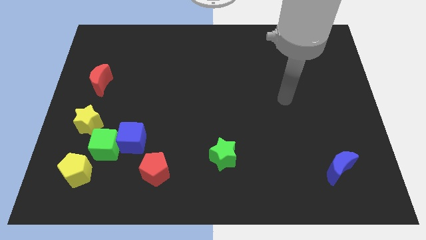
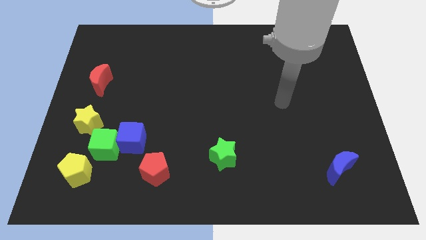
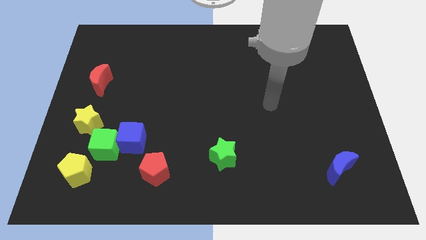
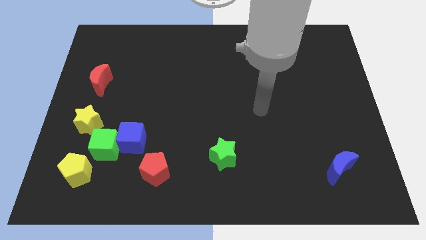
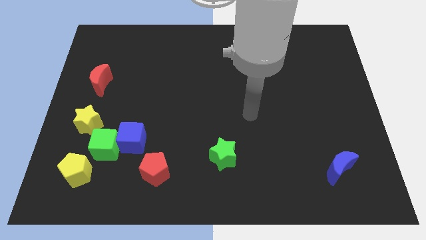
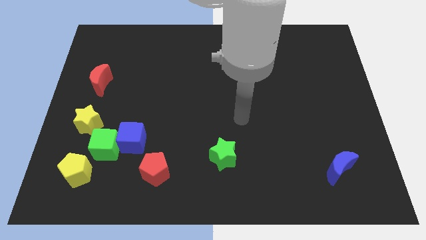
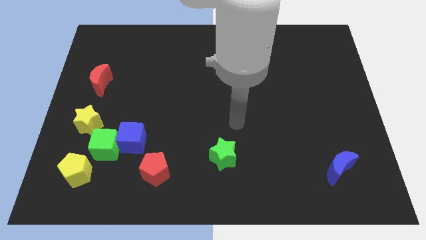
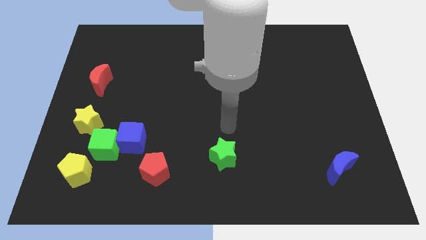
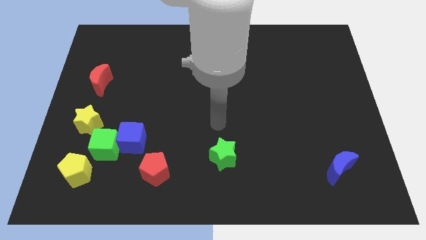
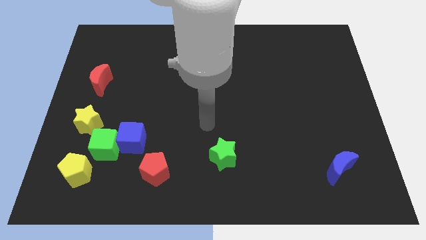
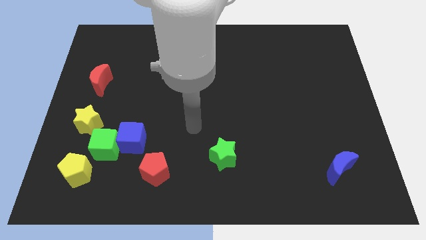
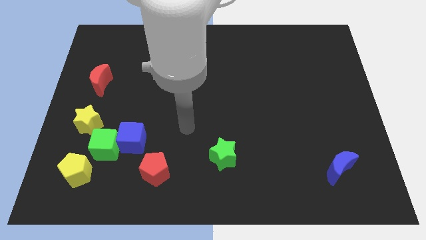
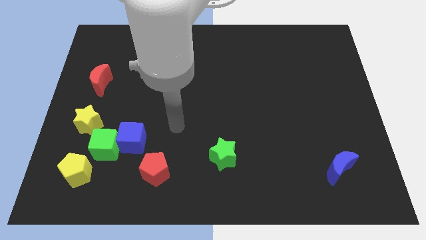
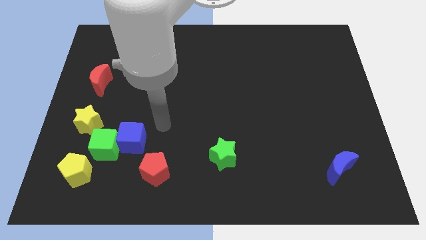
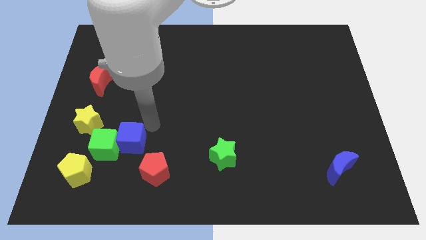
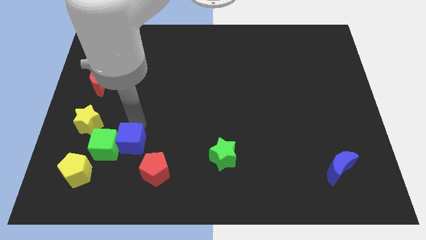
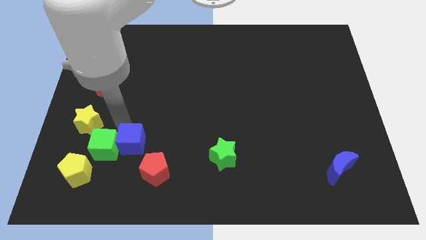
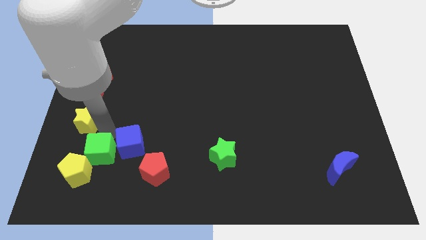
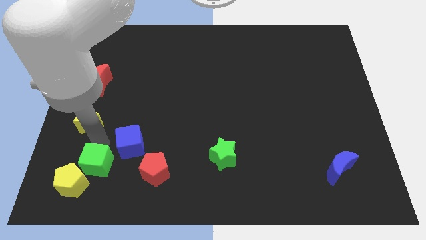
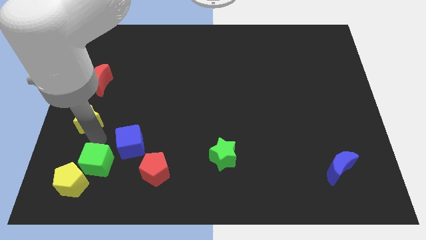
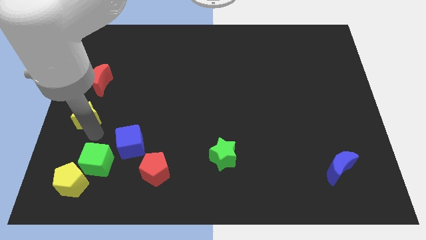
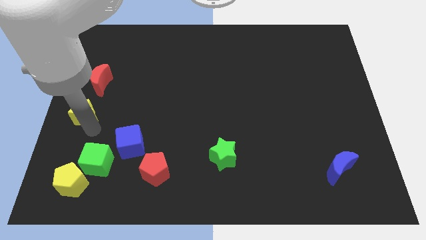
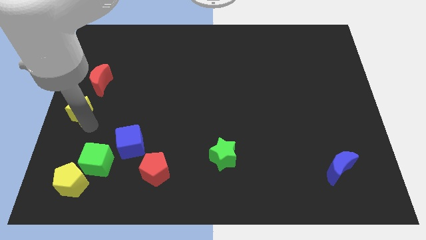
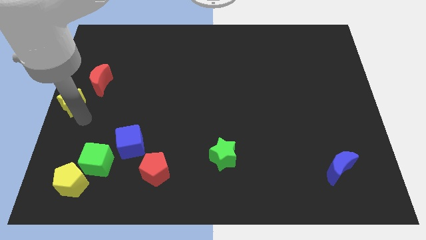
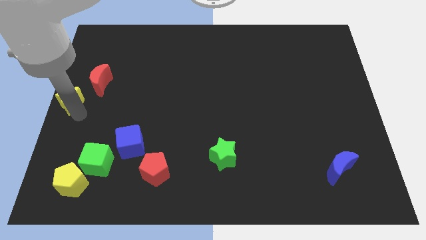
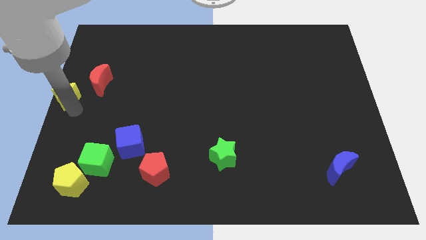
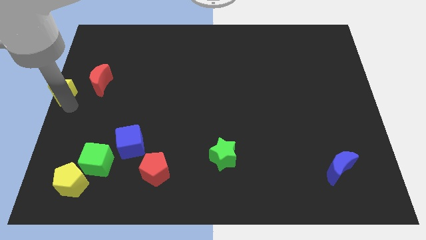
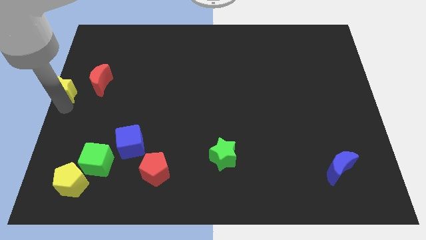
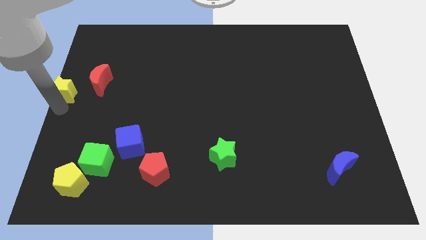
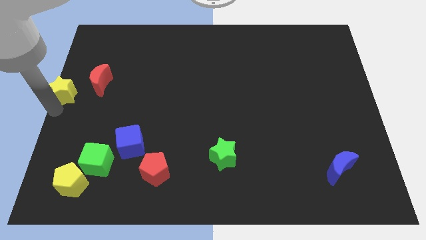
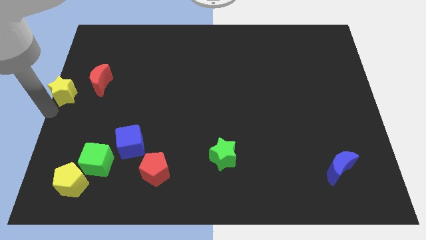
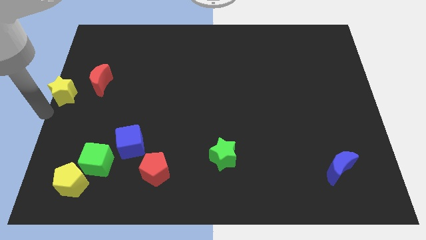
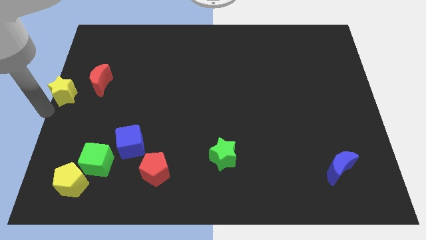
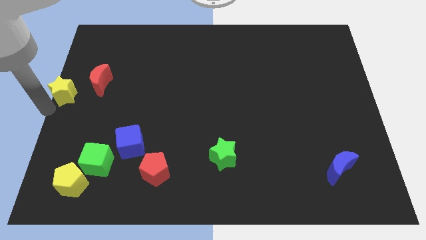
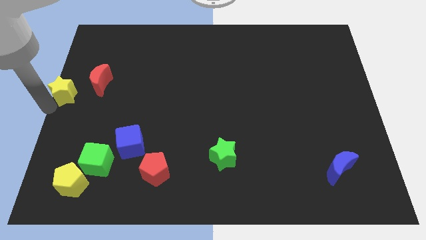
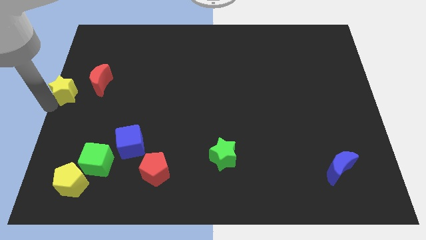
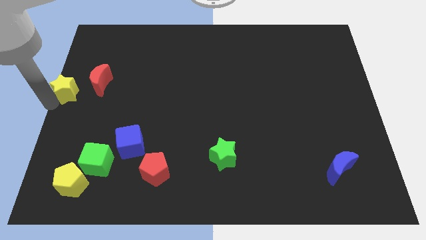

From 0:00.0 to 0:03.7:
slide the yellow star a little bit up

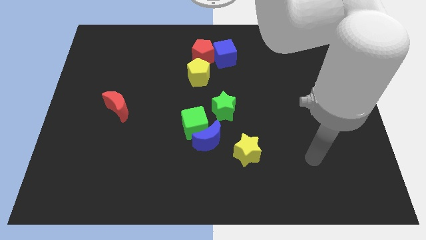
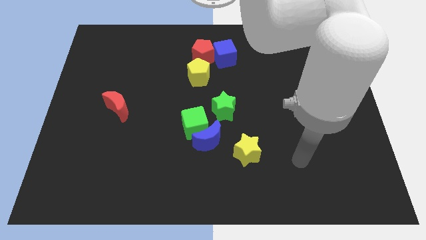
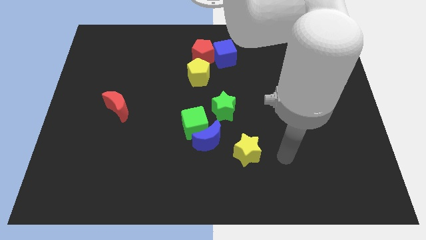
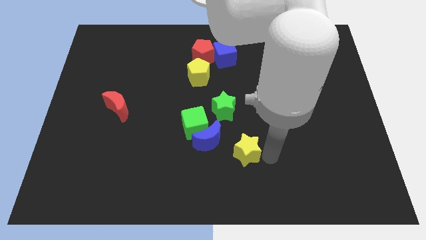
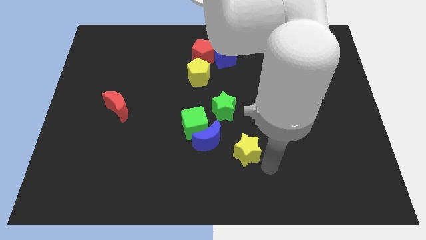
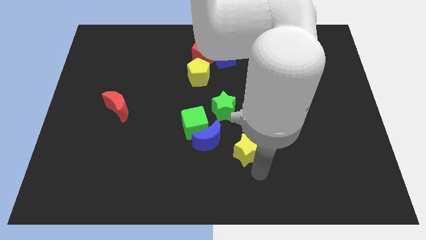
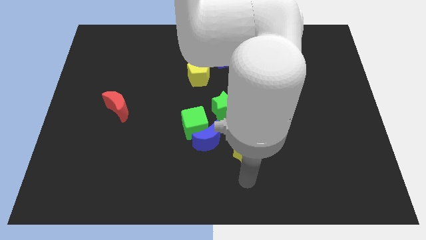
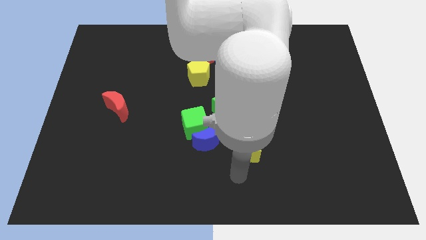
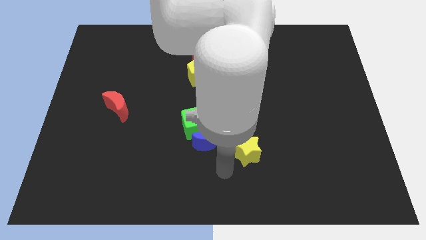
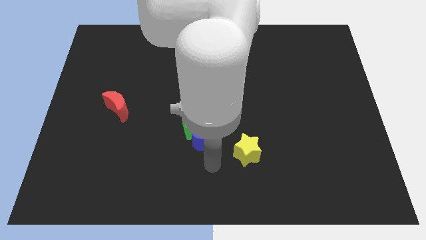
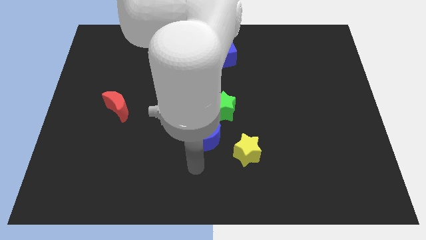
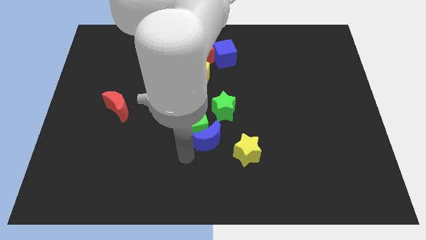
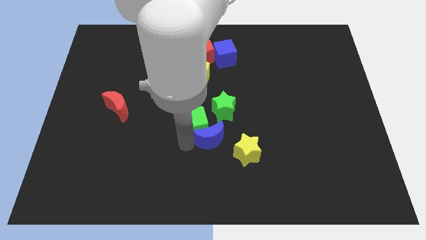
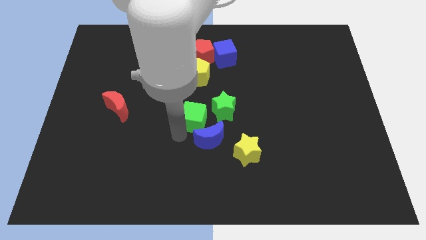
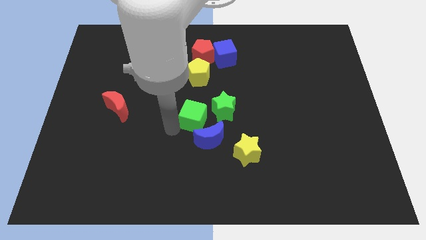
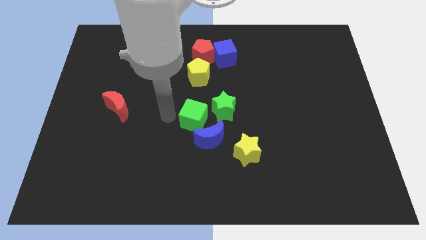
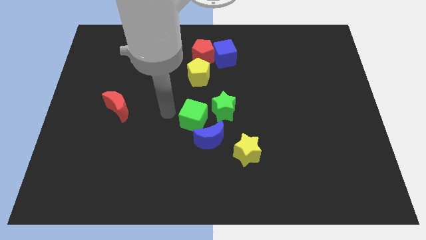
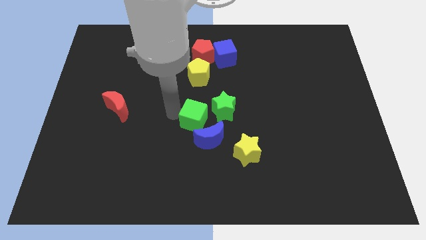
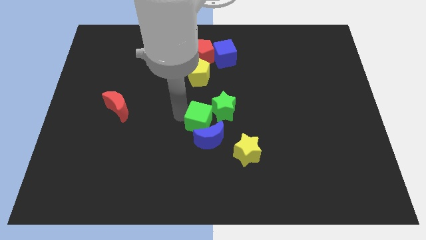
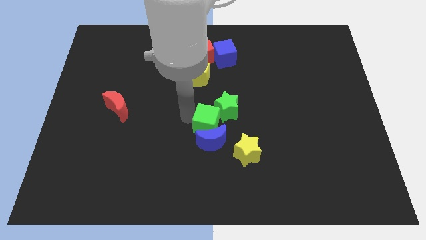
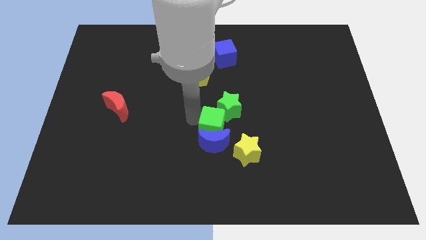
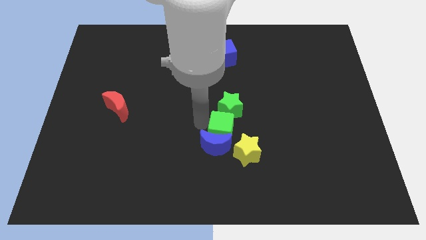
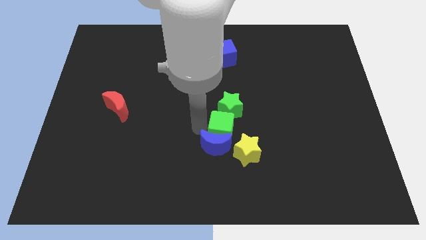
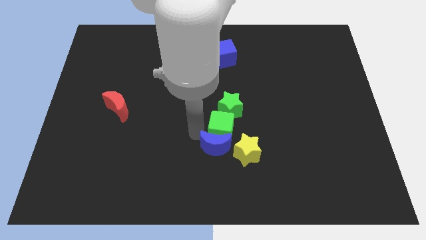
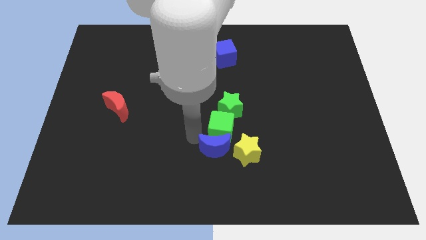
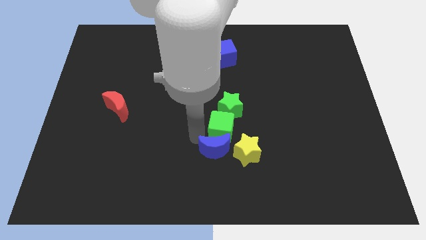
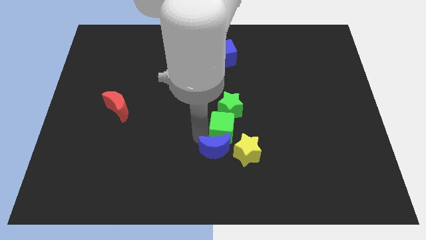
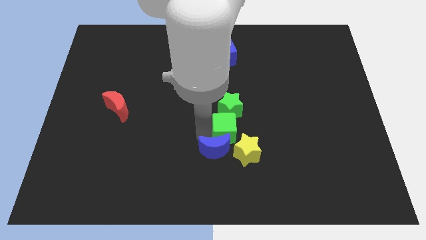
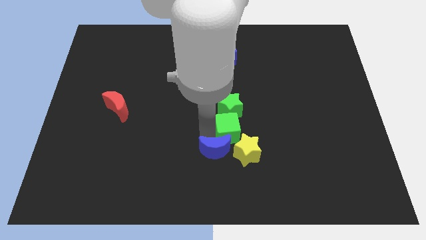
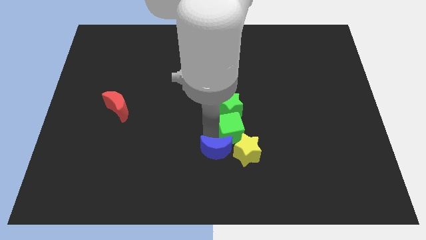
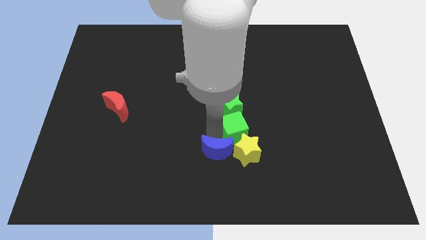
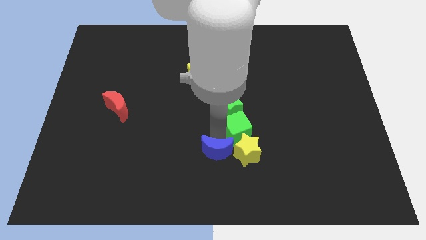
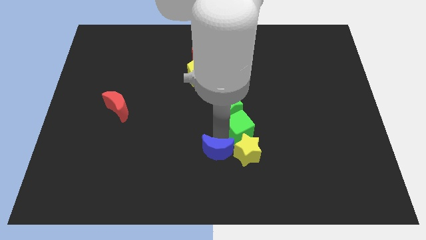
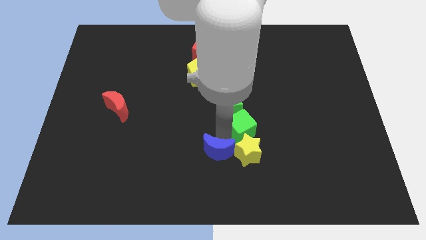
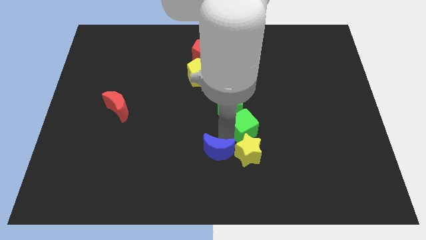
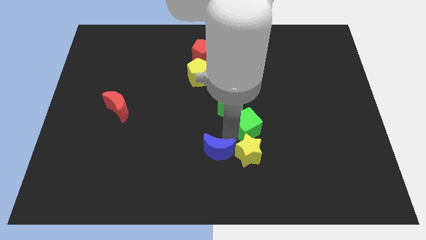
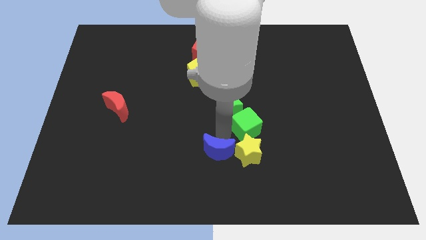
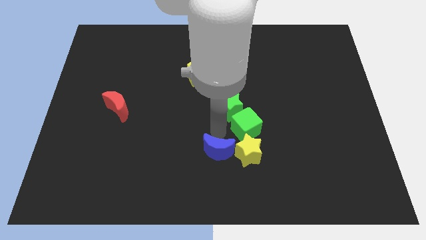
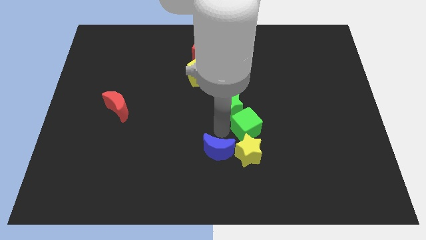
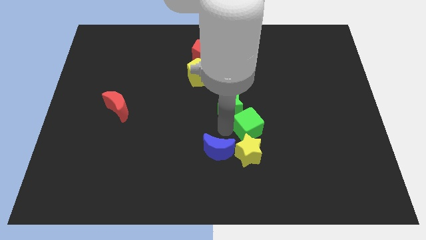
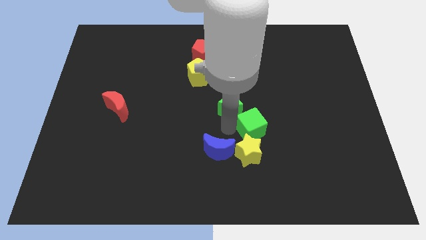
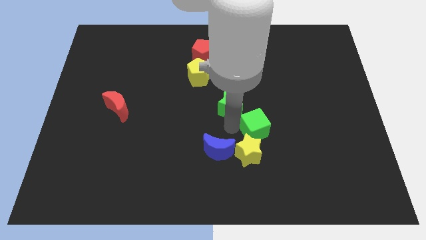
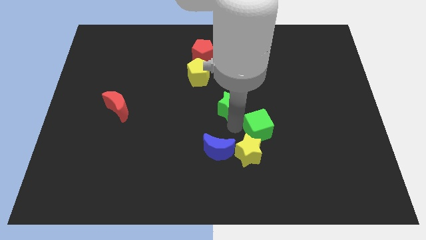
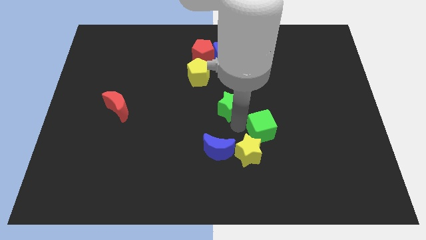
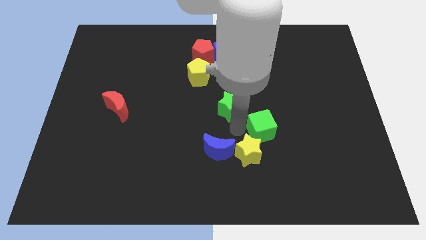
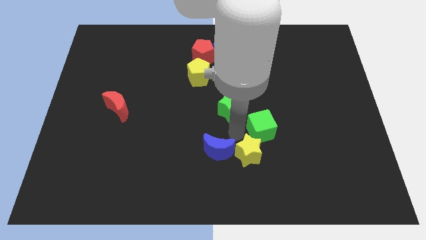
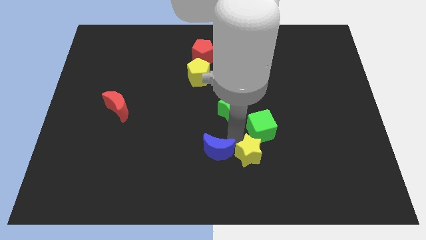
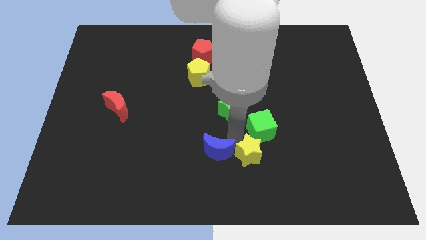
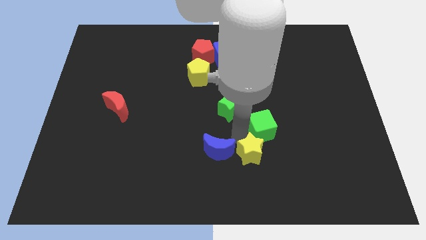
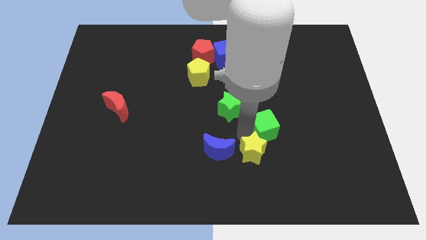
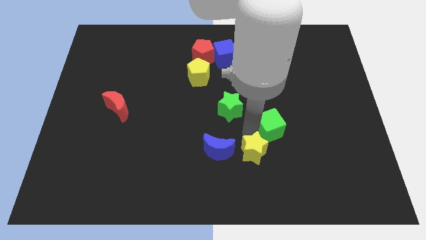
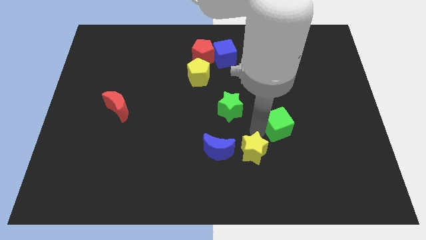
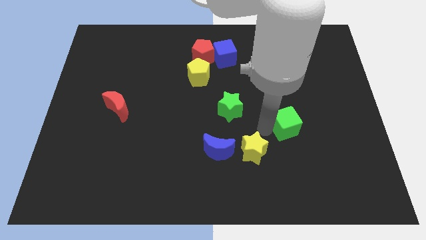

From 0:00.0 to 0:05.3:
move the green cube right
